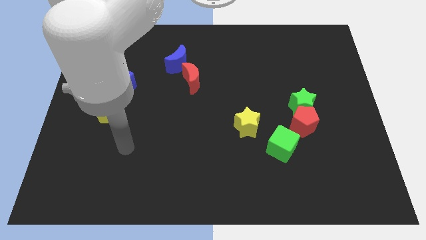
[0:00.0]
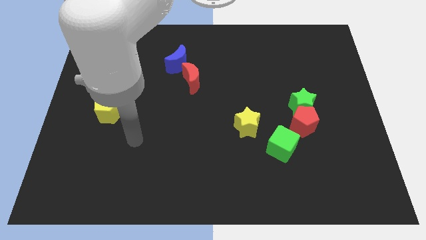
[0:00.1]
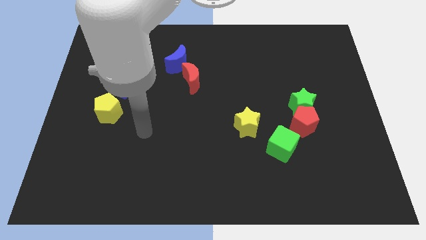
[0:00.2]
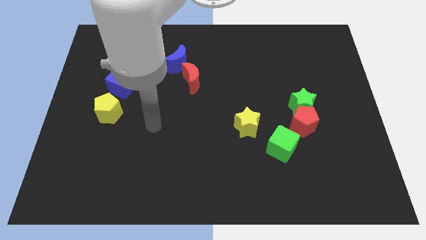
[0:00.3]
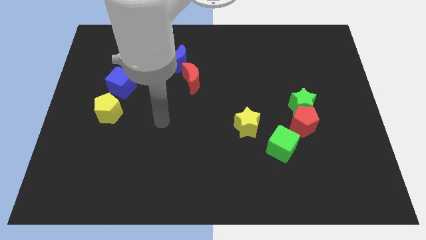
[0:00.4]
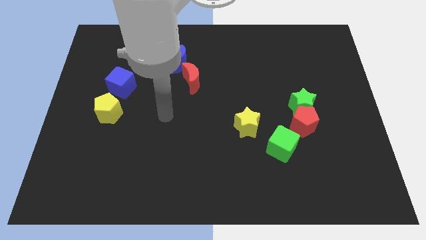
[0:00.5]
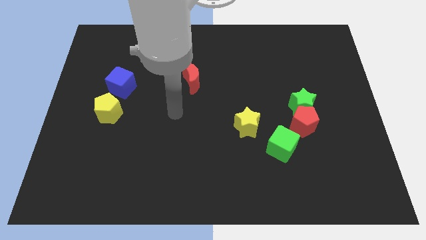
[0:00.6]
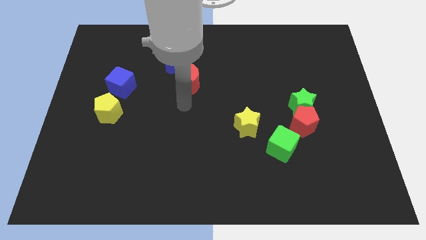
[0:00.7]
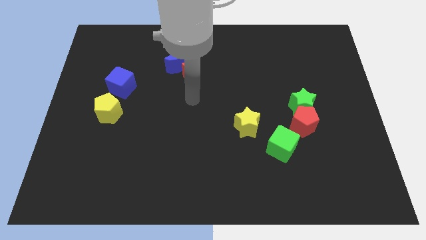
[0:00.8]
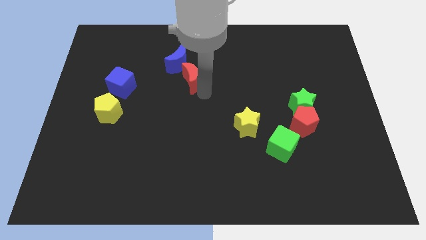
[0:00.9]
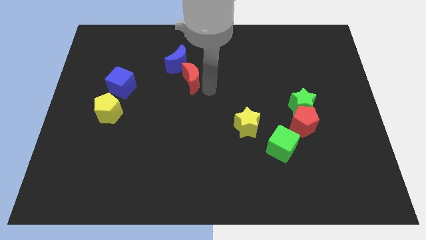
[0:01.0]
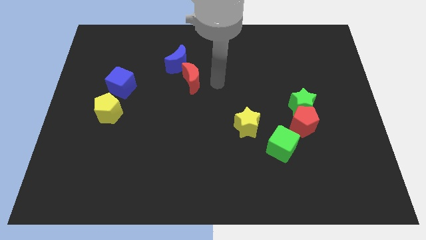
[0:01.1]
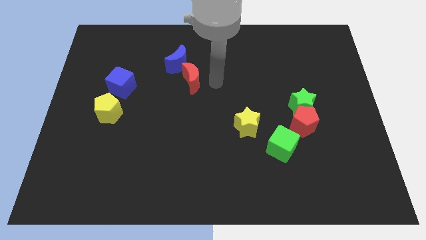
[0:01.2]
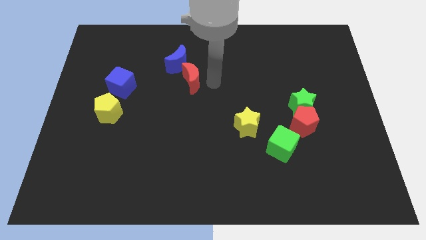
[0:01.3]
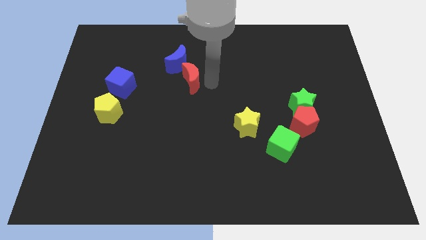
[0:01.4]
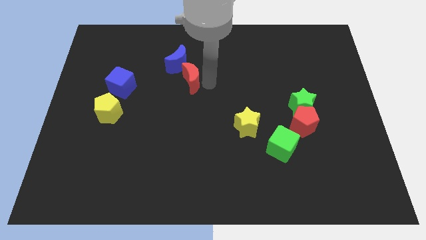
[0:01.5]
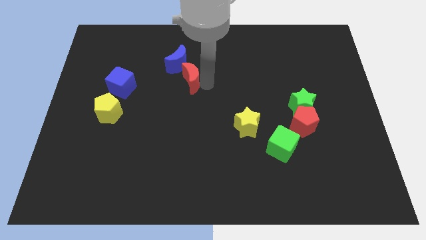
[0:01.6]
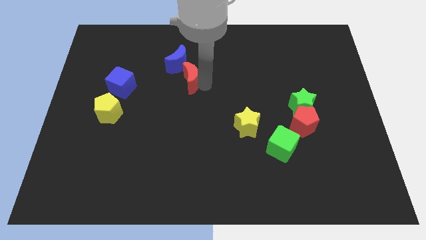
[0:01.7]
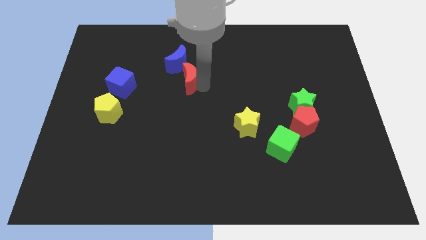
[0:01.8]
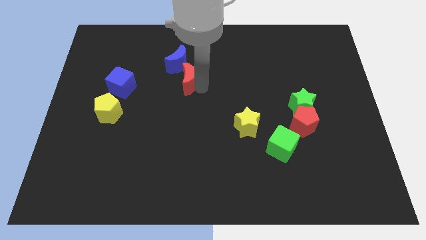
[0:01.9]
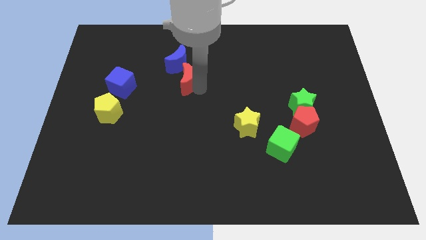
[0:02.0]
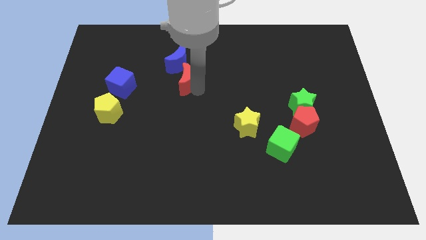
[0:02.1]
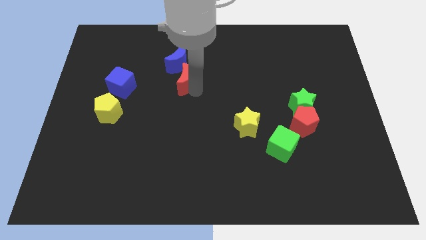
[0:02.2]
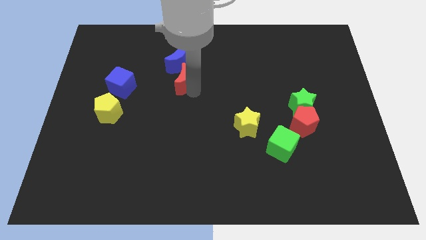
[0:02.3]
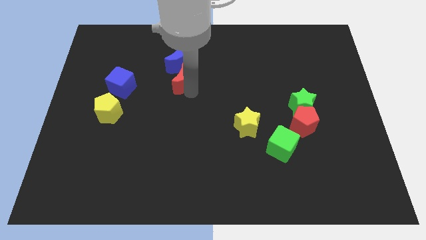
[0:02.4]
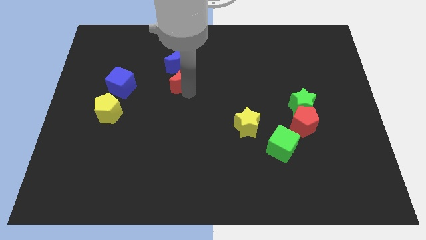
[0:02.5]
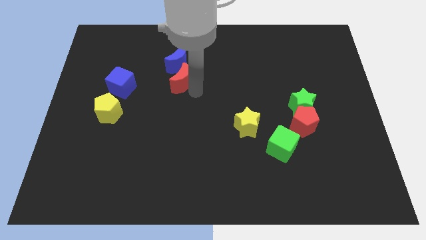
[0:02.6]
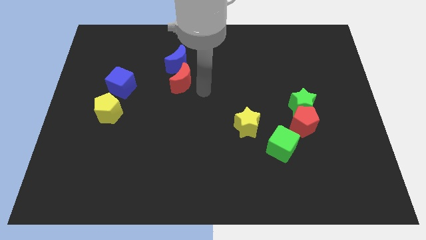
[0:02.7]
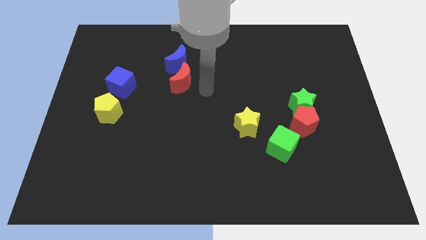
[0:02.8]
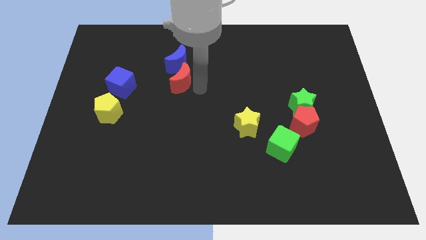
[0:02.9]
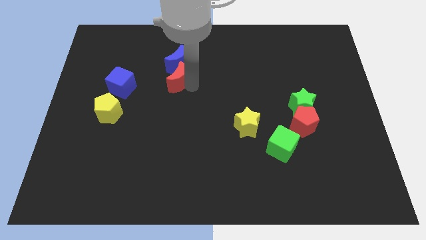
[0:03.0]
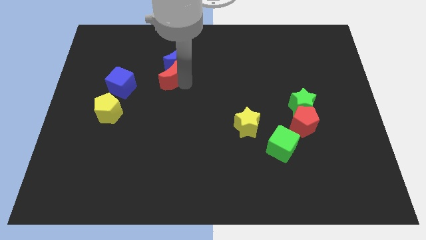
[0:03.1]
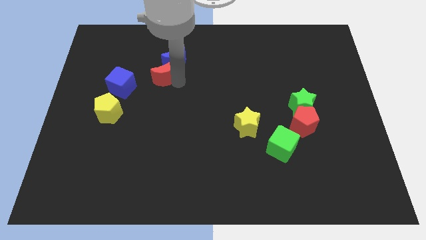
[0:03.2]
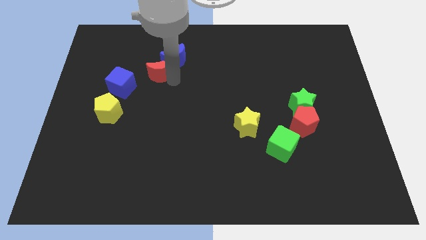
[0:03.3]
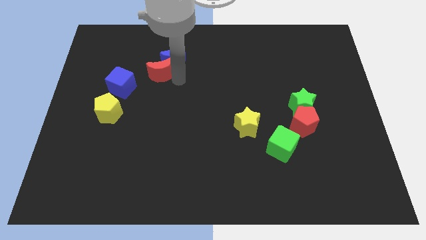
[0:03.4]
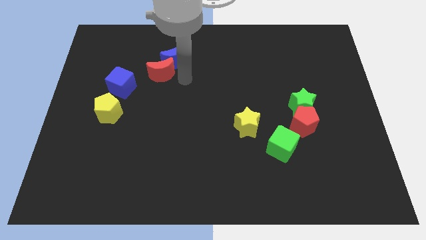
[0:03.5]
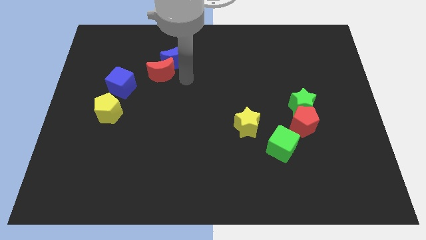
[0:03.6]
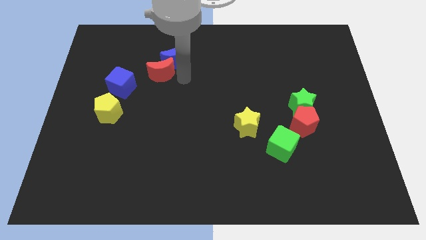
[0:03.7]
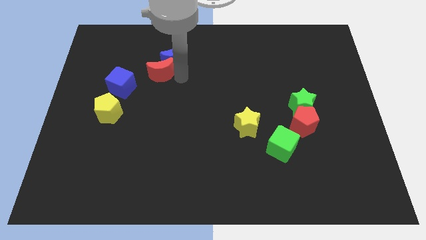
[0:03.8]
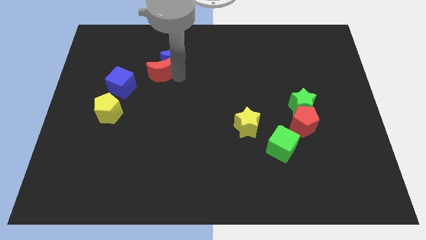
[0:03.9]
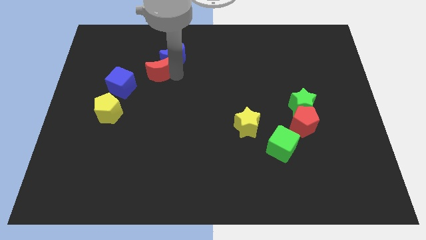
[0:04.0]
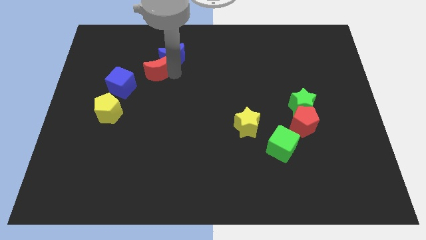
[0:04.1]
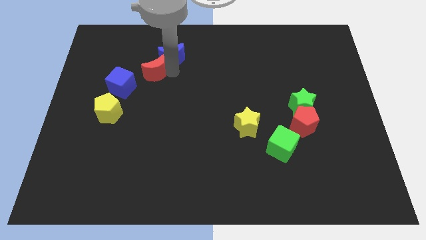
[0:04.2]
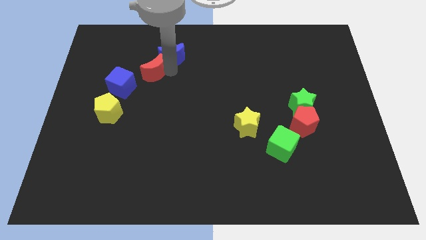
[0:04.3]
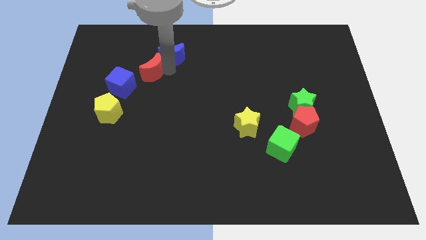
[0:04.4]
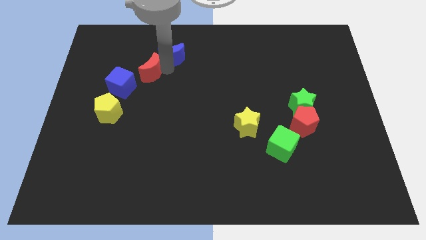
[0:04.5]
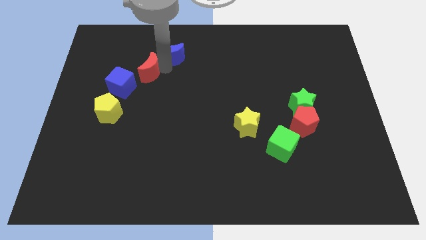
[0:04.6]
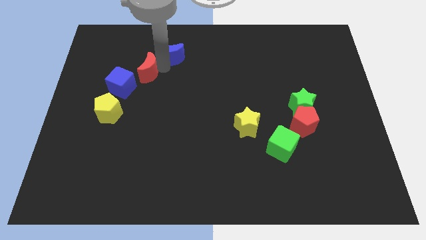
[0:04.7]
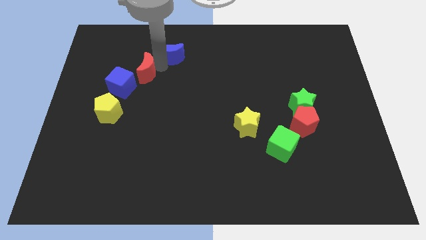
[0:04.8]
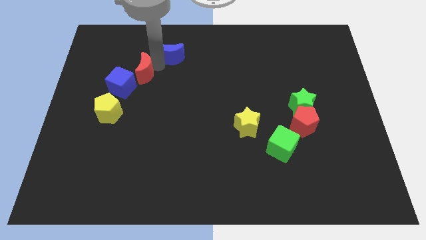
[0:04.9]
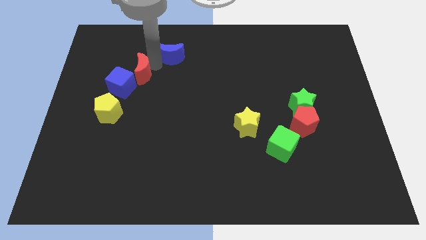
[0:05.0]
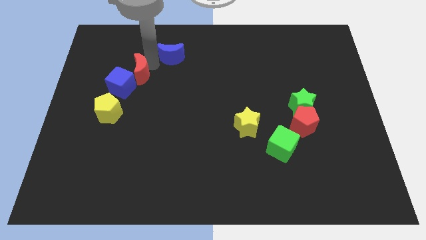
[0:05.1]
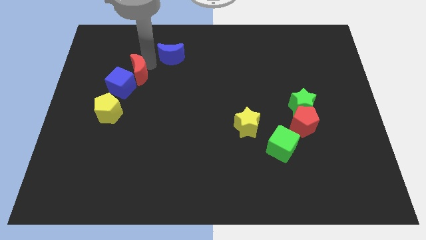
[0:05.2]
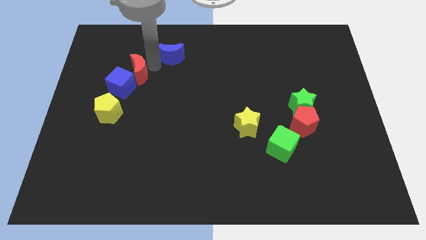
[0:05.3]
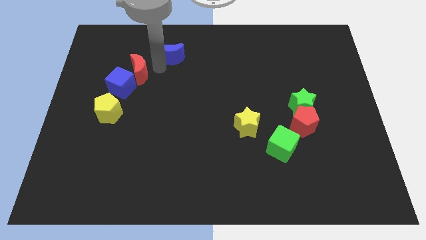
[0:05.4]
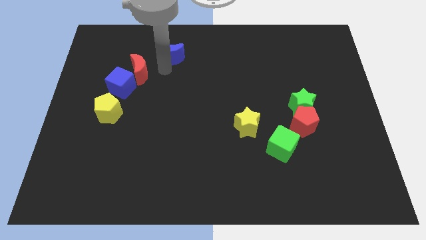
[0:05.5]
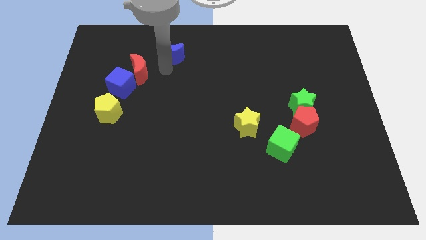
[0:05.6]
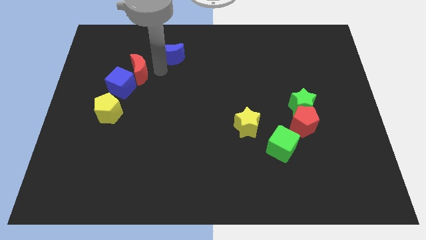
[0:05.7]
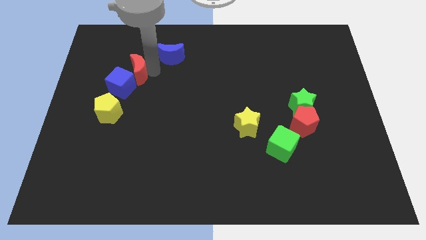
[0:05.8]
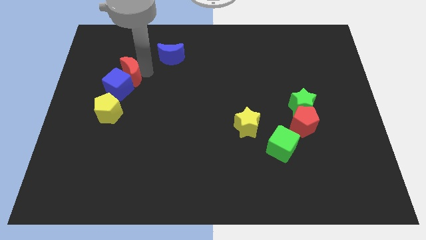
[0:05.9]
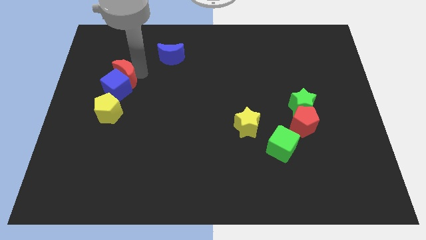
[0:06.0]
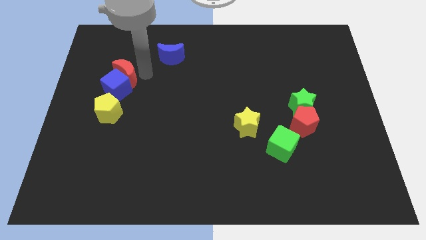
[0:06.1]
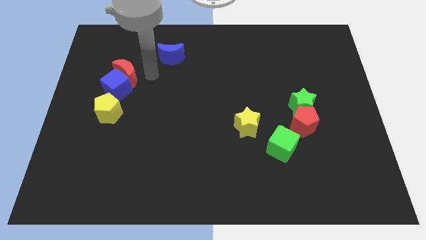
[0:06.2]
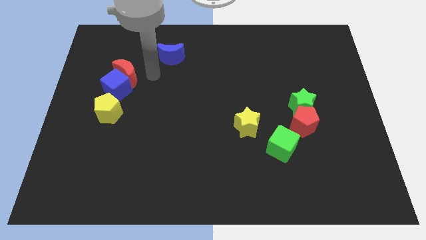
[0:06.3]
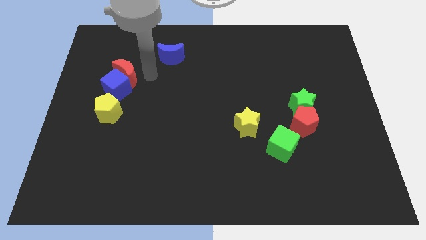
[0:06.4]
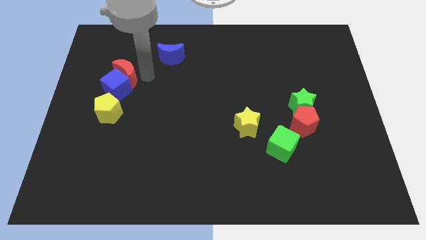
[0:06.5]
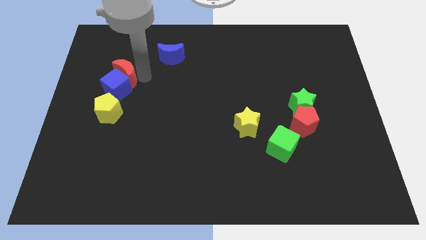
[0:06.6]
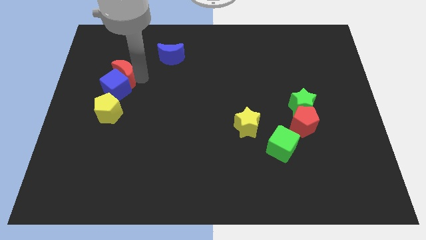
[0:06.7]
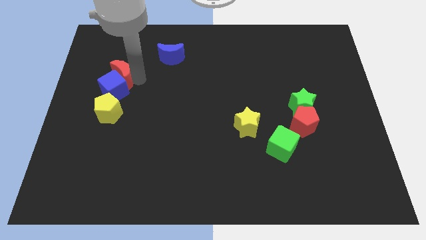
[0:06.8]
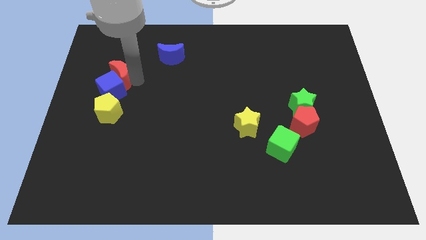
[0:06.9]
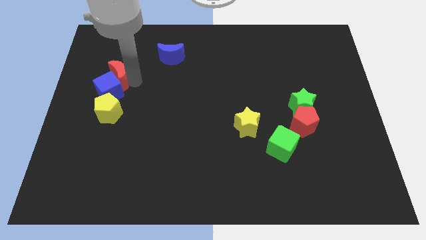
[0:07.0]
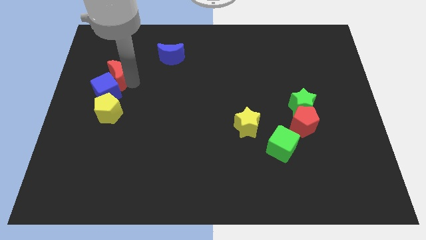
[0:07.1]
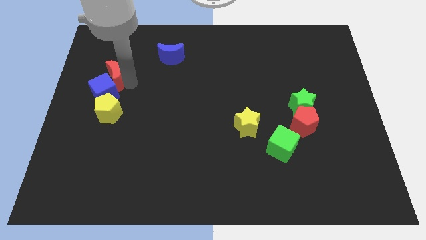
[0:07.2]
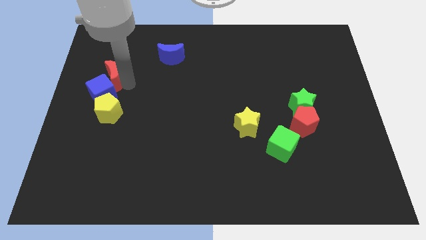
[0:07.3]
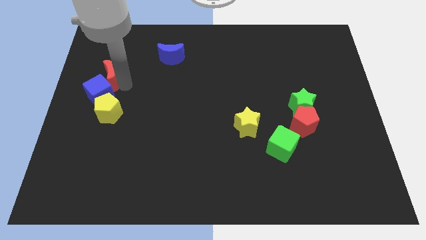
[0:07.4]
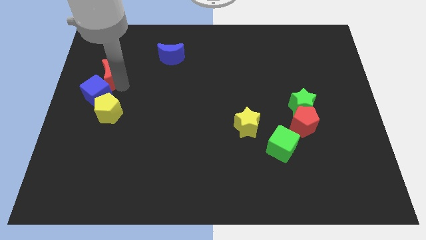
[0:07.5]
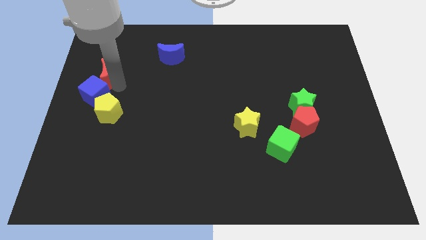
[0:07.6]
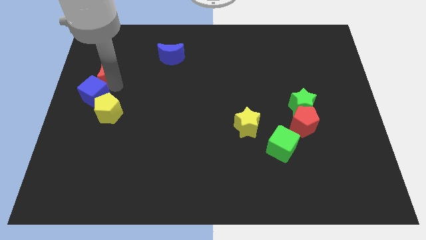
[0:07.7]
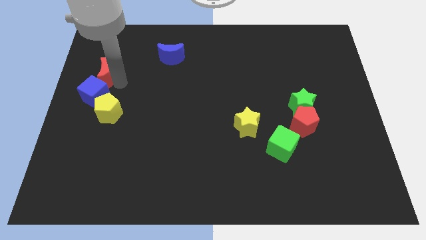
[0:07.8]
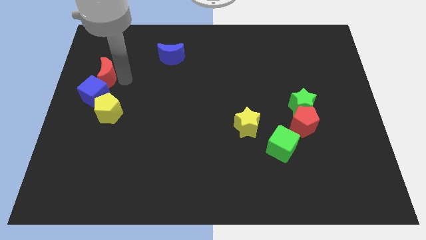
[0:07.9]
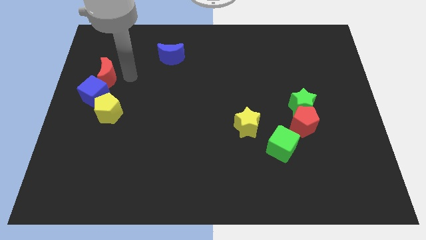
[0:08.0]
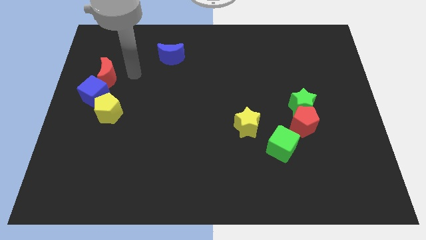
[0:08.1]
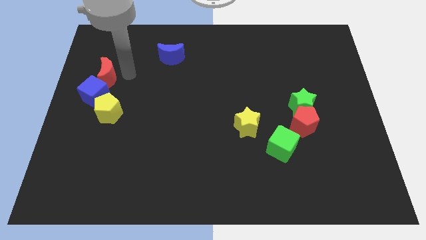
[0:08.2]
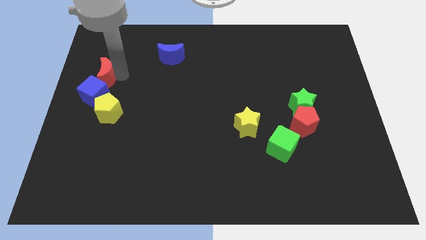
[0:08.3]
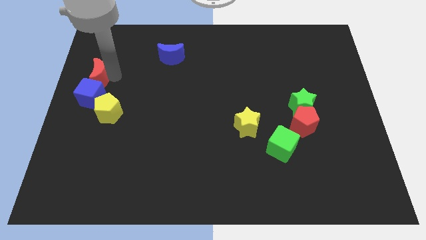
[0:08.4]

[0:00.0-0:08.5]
slide the red moon to the left side of the board
